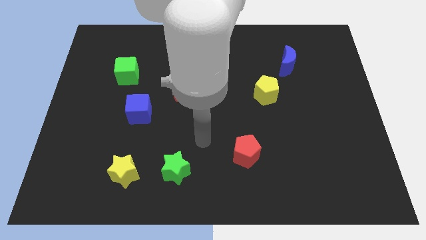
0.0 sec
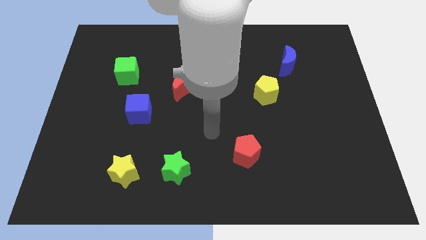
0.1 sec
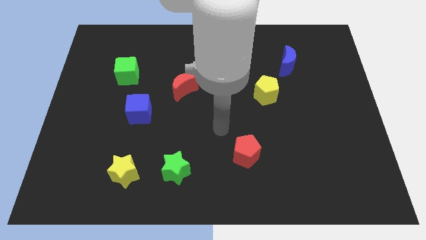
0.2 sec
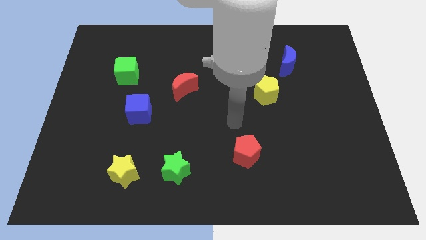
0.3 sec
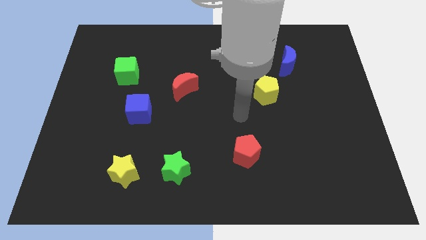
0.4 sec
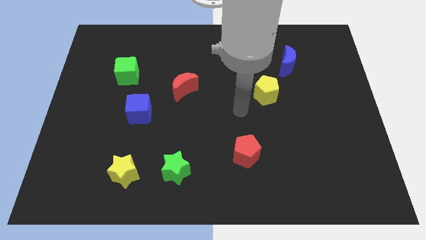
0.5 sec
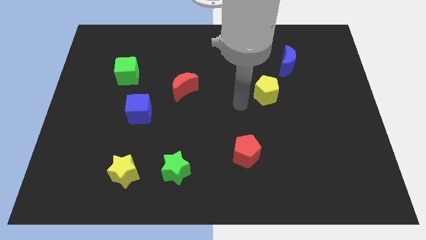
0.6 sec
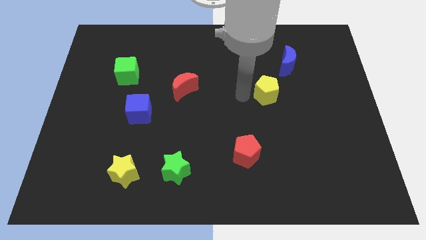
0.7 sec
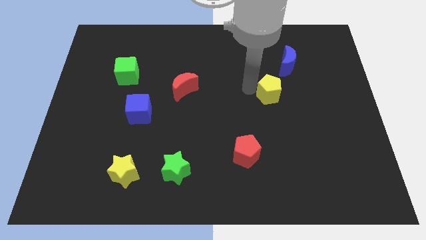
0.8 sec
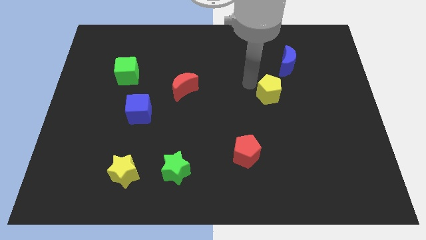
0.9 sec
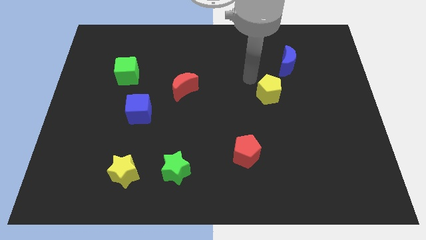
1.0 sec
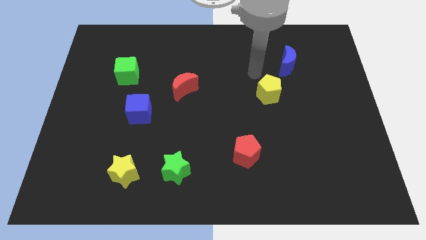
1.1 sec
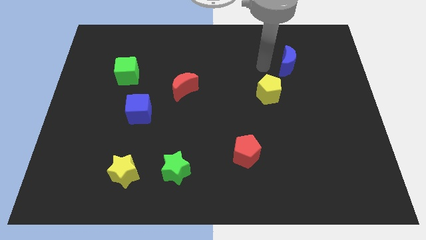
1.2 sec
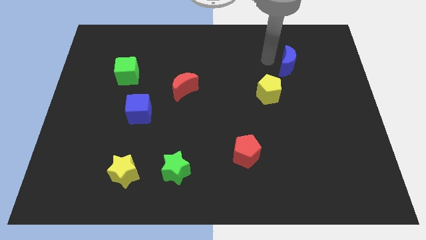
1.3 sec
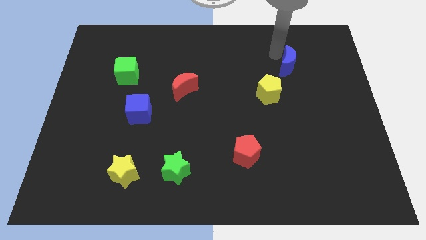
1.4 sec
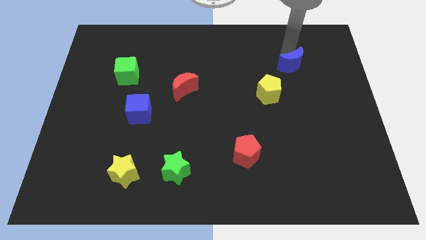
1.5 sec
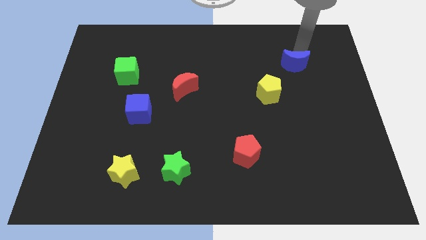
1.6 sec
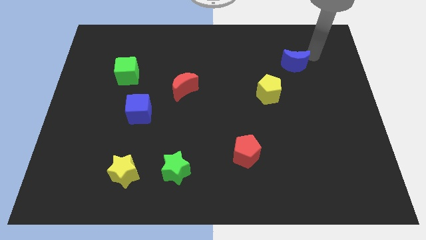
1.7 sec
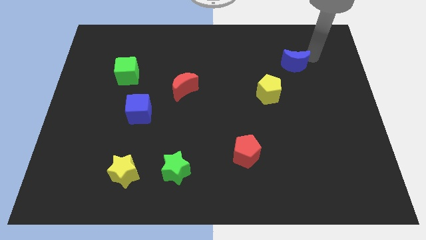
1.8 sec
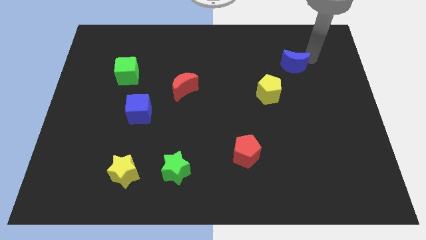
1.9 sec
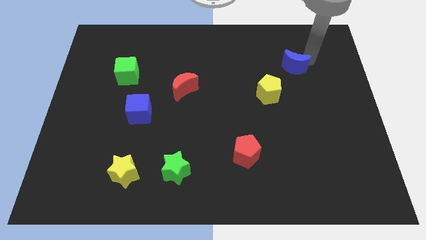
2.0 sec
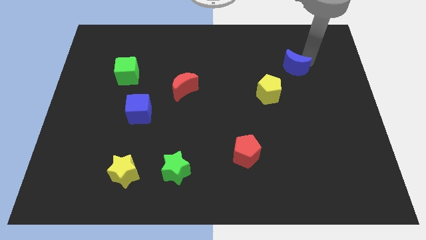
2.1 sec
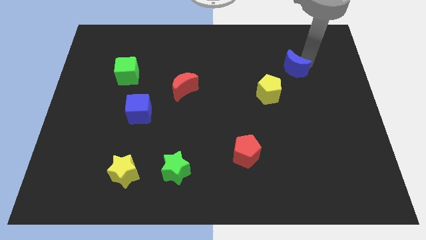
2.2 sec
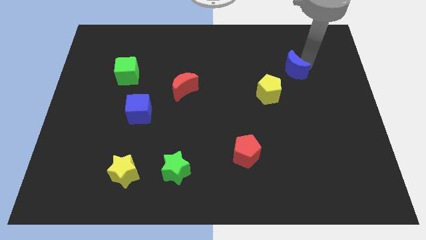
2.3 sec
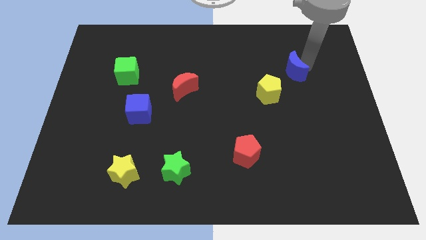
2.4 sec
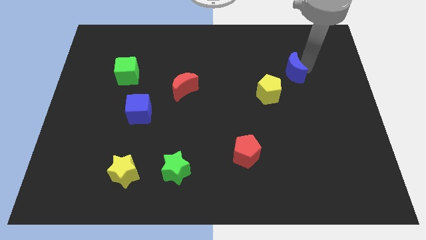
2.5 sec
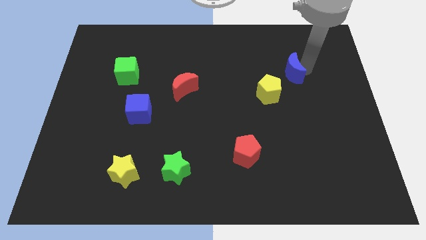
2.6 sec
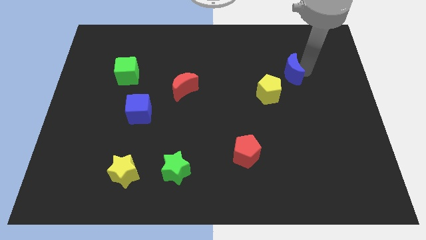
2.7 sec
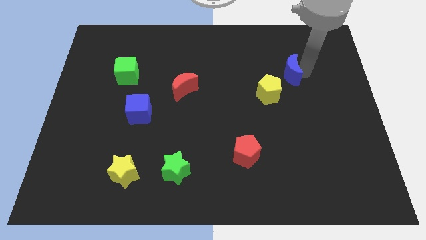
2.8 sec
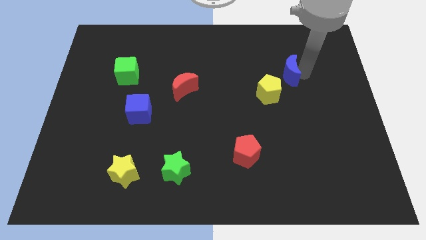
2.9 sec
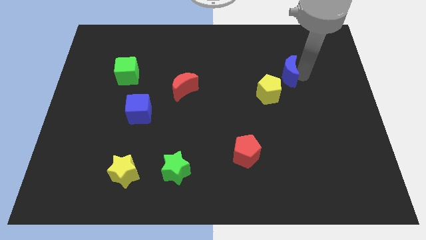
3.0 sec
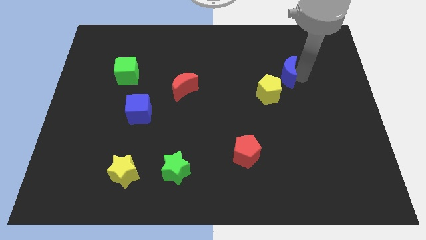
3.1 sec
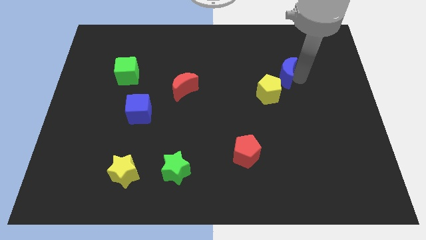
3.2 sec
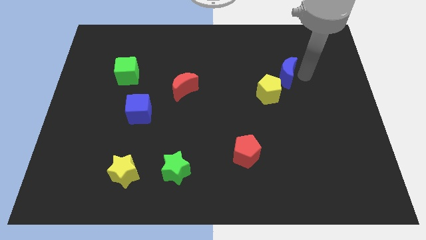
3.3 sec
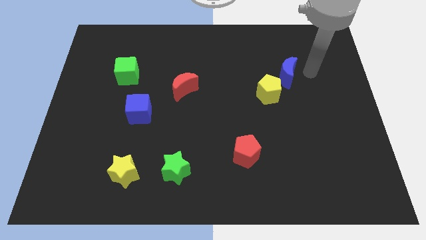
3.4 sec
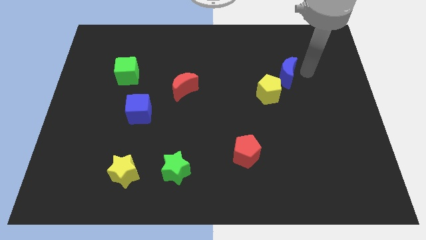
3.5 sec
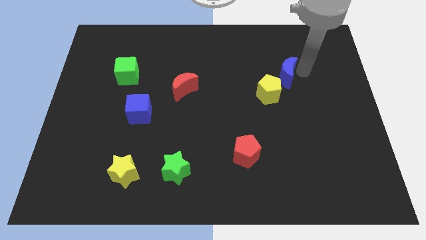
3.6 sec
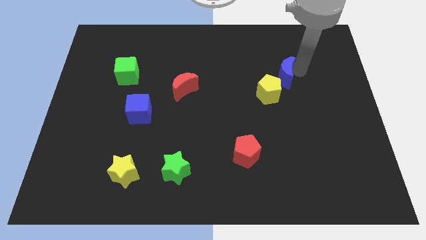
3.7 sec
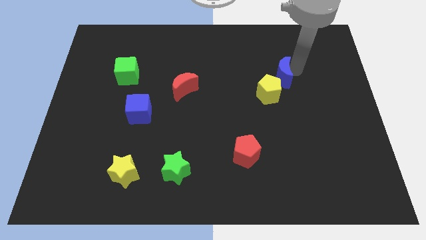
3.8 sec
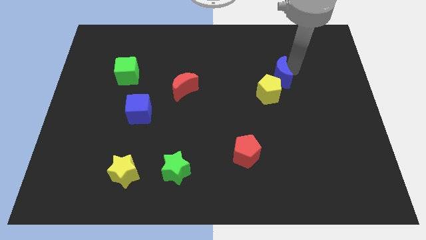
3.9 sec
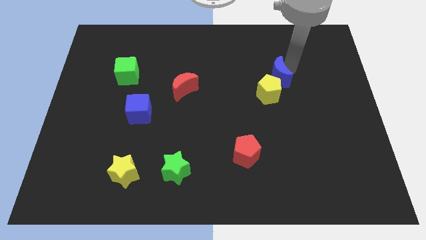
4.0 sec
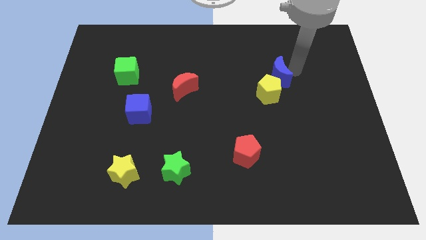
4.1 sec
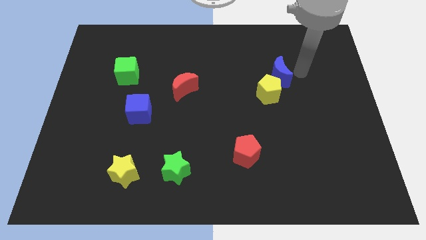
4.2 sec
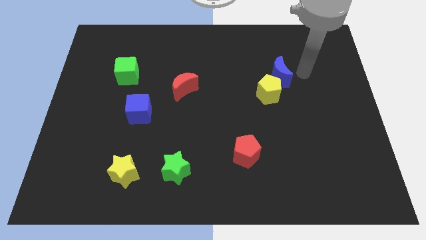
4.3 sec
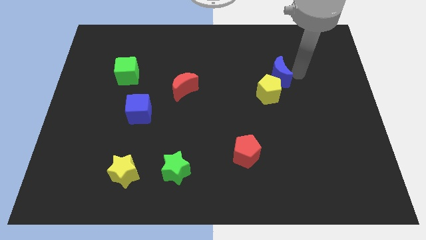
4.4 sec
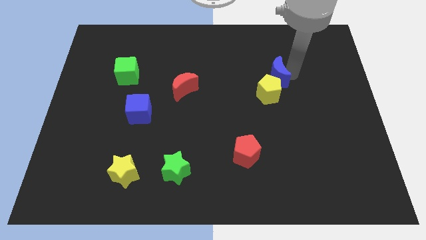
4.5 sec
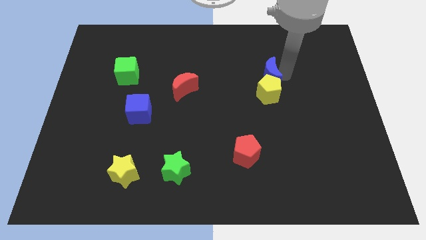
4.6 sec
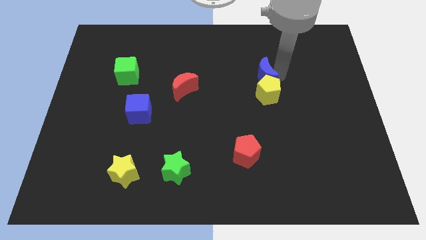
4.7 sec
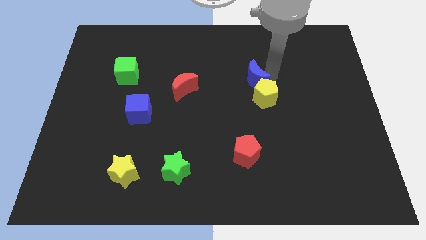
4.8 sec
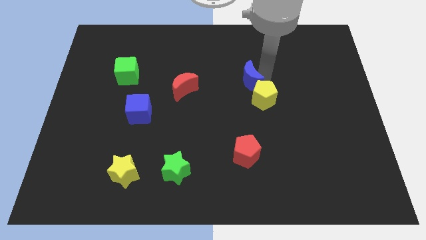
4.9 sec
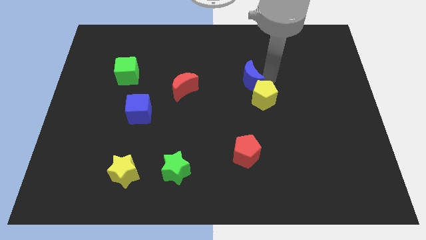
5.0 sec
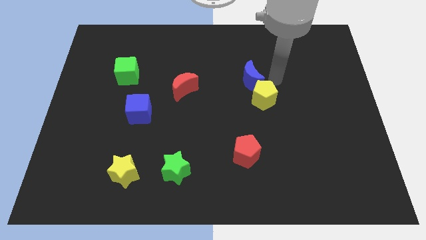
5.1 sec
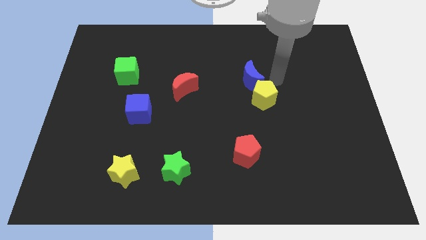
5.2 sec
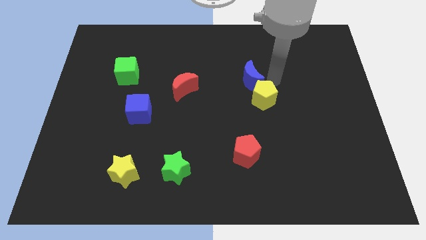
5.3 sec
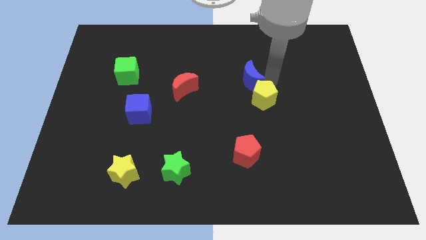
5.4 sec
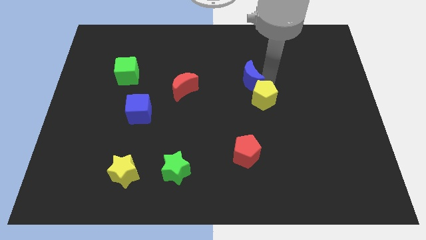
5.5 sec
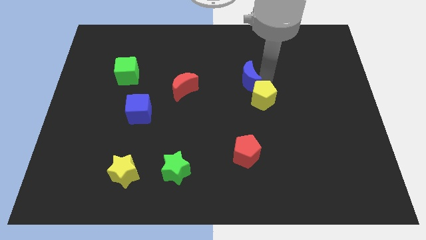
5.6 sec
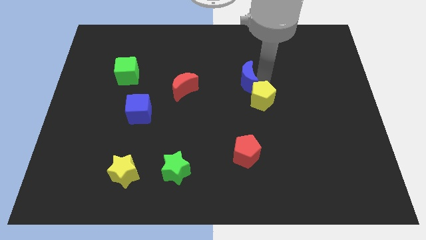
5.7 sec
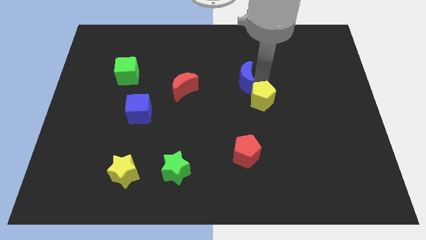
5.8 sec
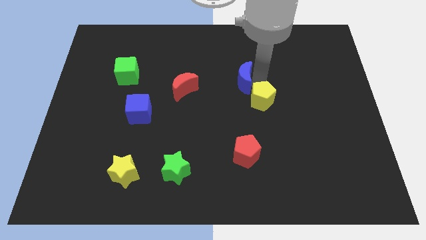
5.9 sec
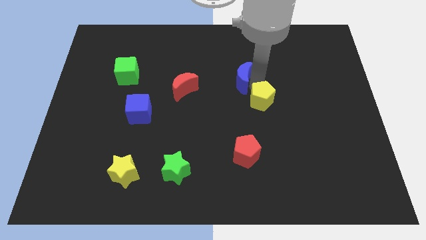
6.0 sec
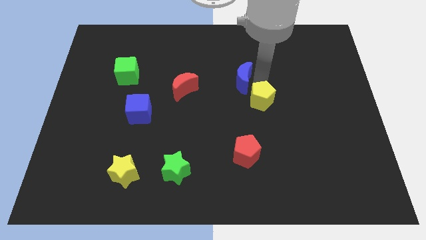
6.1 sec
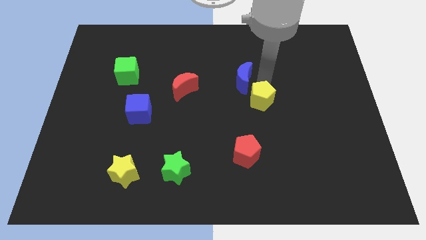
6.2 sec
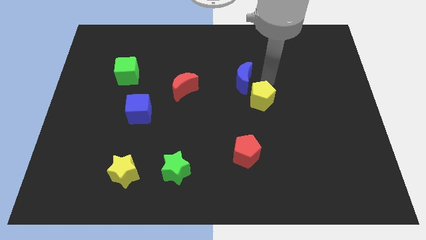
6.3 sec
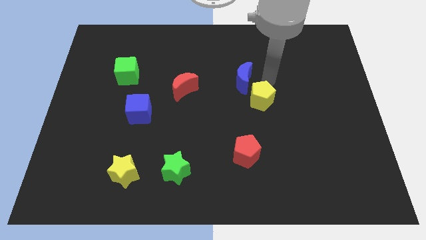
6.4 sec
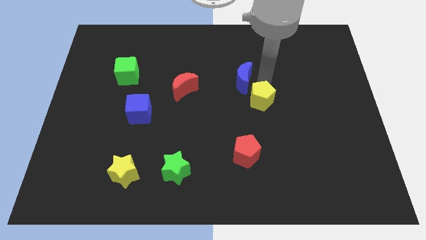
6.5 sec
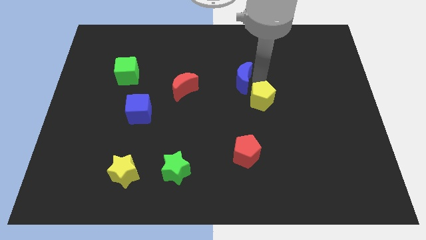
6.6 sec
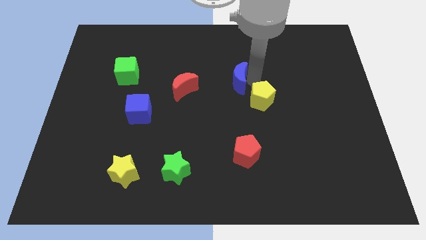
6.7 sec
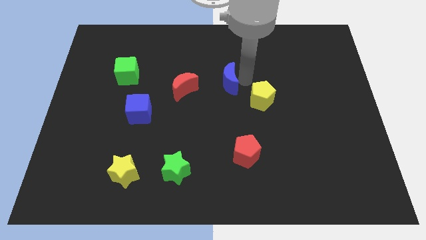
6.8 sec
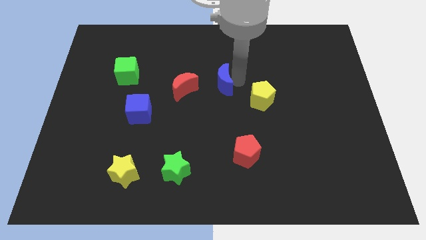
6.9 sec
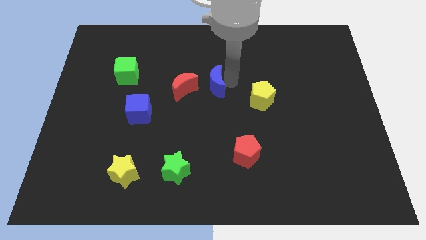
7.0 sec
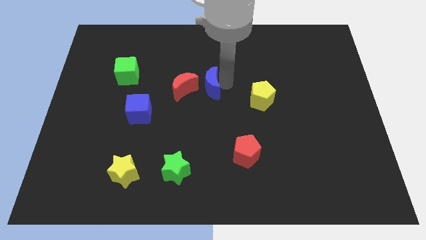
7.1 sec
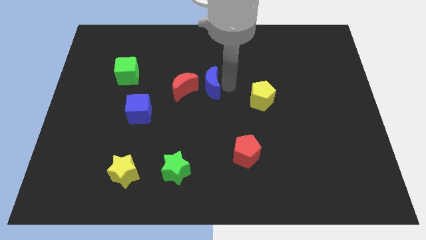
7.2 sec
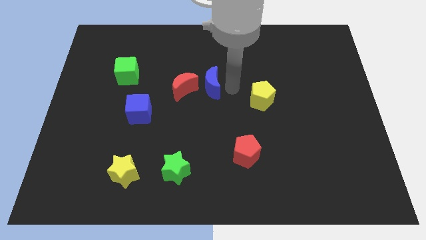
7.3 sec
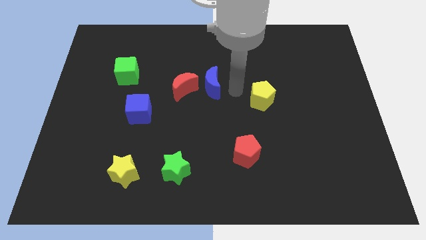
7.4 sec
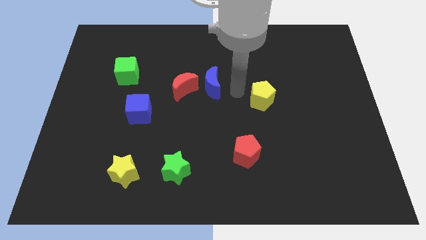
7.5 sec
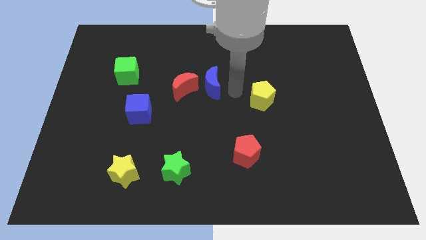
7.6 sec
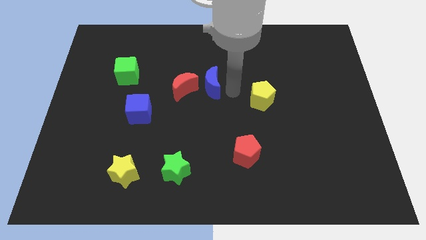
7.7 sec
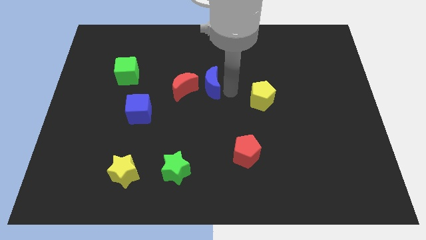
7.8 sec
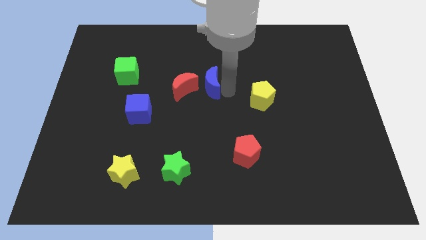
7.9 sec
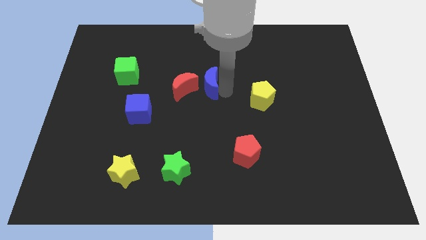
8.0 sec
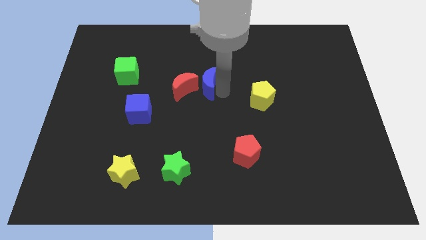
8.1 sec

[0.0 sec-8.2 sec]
put the blue moon next to the red moon
